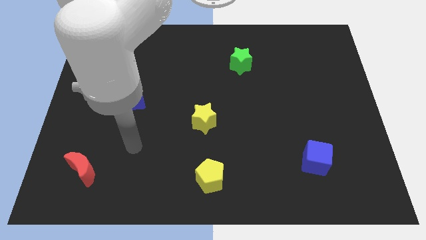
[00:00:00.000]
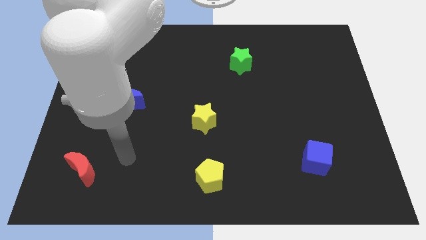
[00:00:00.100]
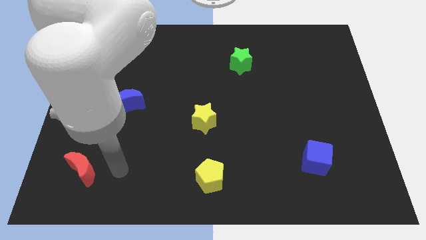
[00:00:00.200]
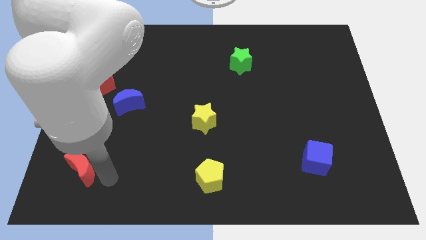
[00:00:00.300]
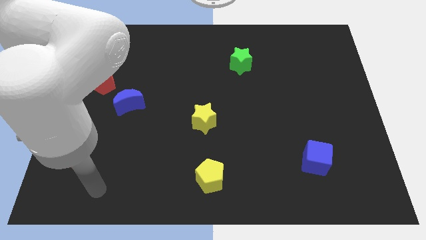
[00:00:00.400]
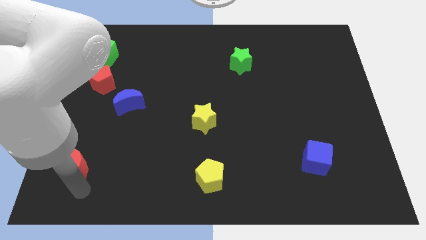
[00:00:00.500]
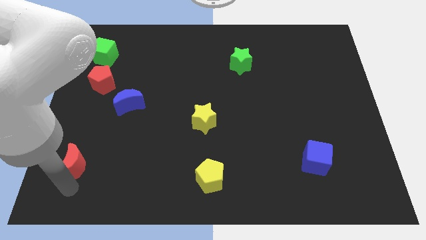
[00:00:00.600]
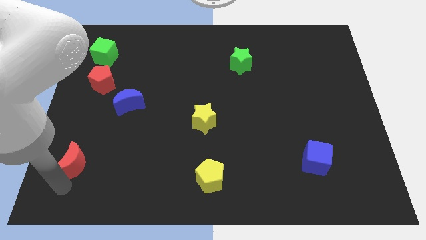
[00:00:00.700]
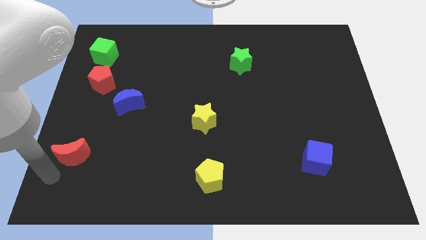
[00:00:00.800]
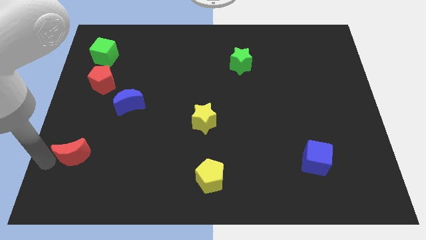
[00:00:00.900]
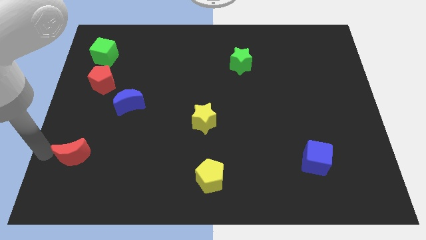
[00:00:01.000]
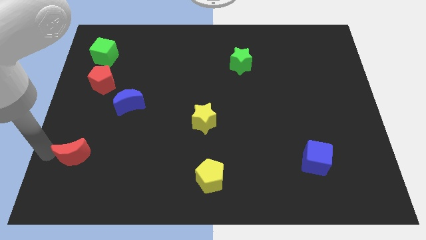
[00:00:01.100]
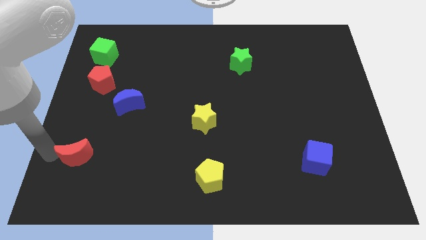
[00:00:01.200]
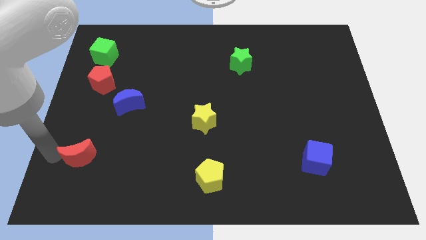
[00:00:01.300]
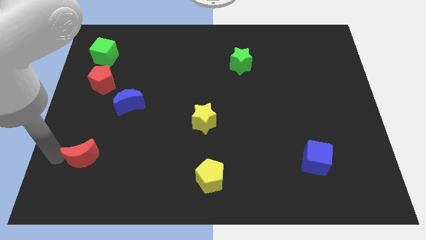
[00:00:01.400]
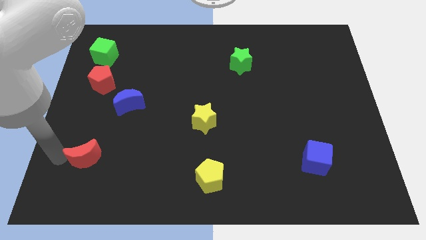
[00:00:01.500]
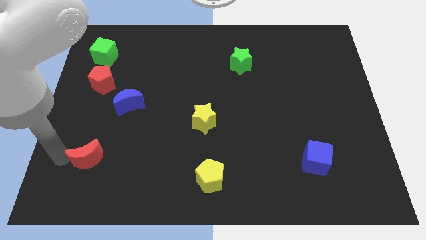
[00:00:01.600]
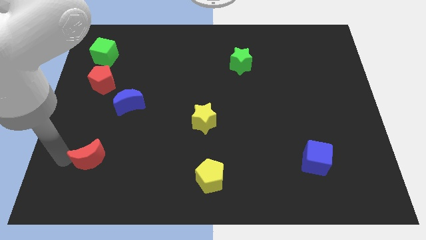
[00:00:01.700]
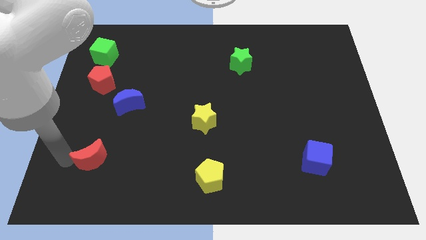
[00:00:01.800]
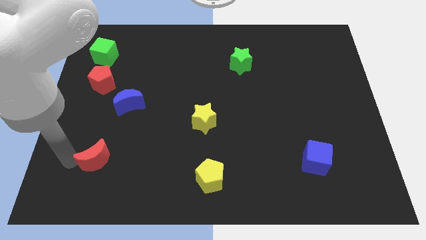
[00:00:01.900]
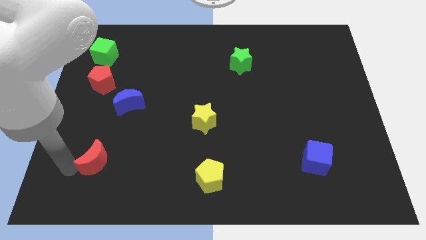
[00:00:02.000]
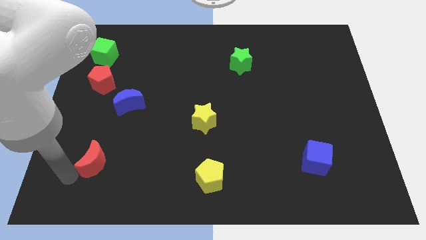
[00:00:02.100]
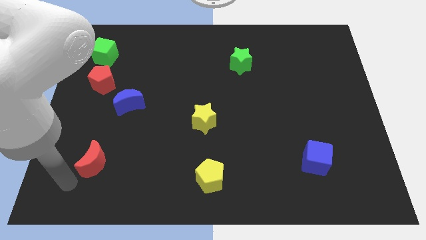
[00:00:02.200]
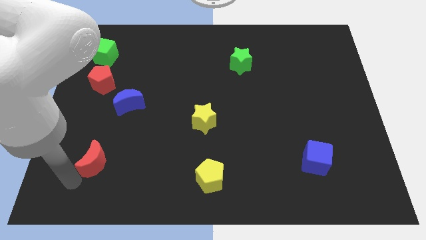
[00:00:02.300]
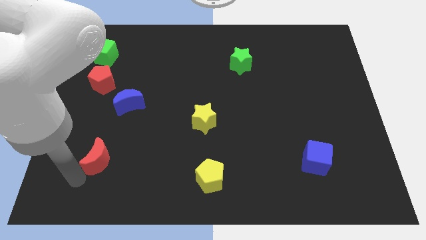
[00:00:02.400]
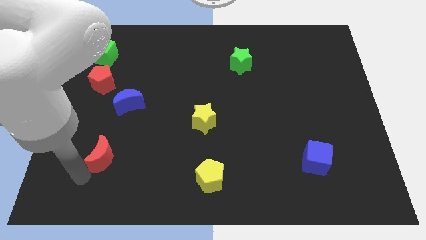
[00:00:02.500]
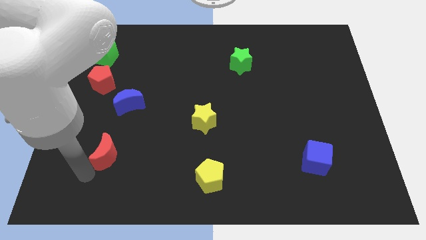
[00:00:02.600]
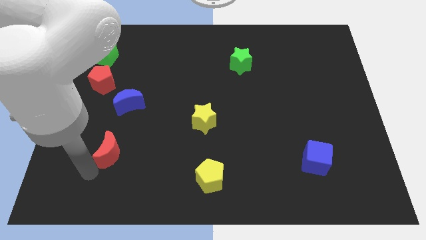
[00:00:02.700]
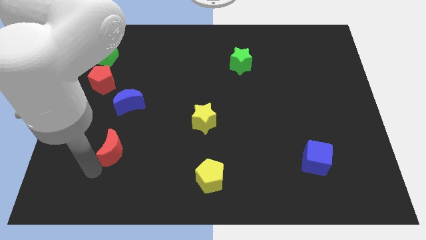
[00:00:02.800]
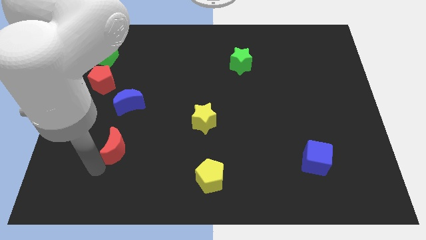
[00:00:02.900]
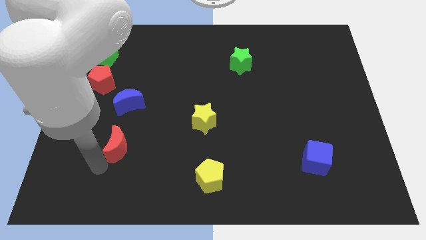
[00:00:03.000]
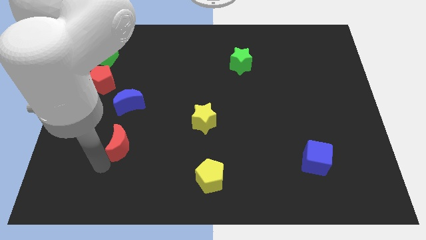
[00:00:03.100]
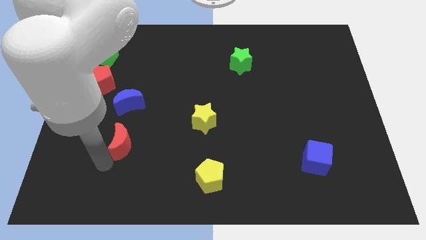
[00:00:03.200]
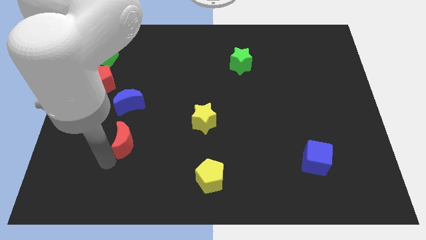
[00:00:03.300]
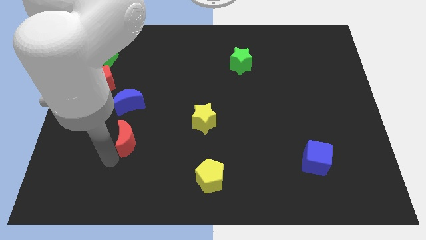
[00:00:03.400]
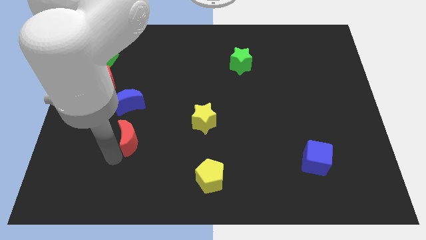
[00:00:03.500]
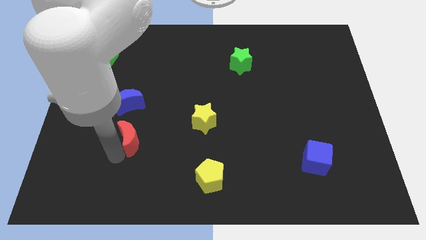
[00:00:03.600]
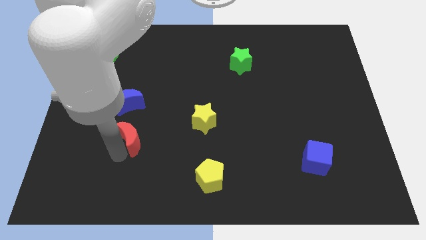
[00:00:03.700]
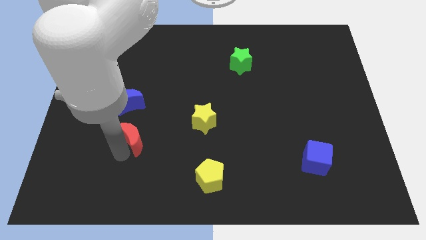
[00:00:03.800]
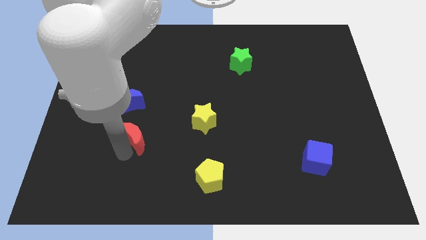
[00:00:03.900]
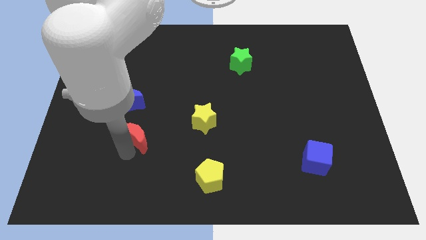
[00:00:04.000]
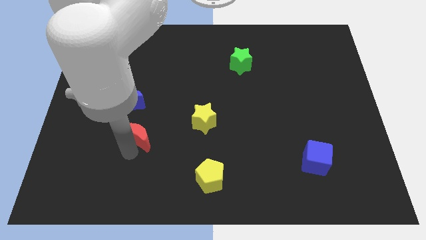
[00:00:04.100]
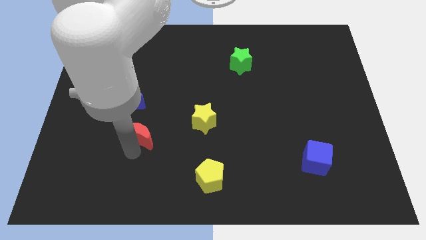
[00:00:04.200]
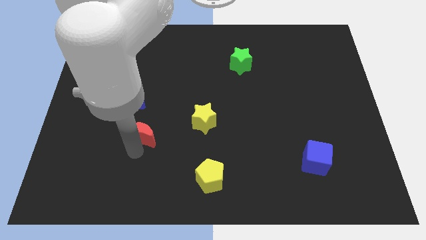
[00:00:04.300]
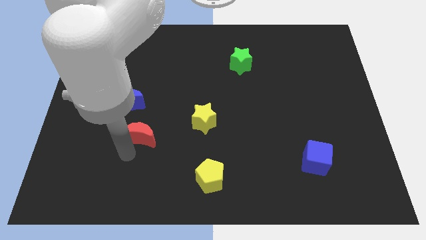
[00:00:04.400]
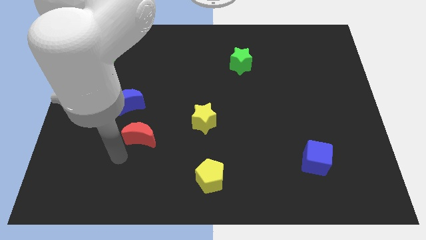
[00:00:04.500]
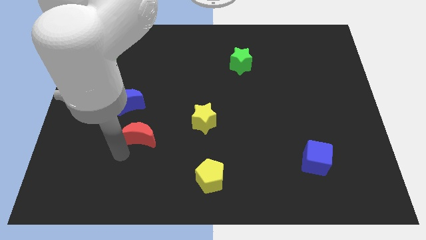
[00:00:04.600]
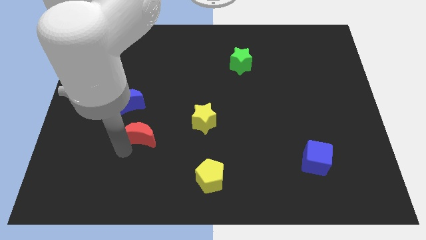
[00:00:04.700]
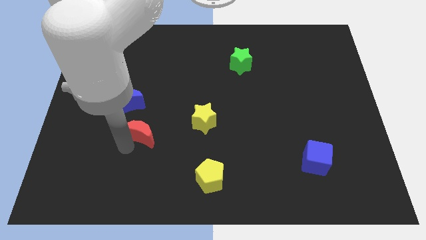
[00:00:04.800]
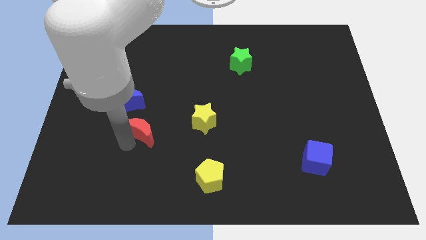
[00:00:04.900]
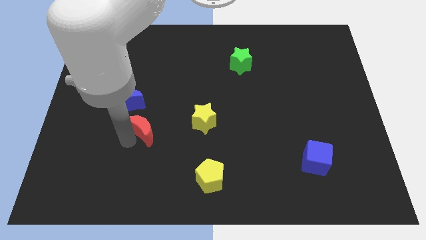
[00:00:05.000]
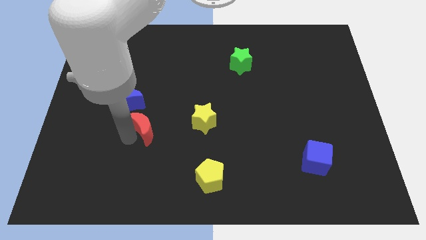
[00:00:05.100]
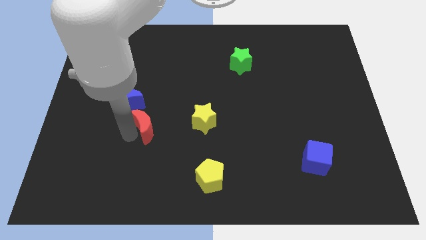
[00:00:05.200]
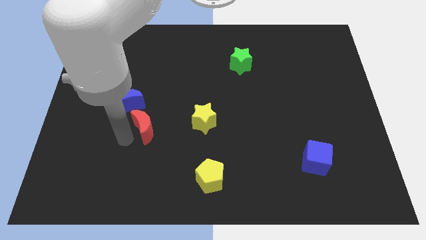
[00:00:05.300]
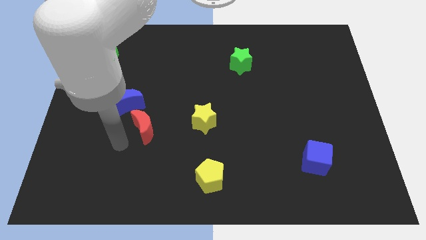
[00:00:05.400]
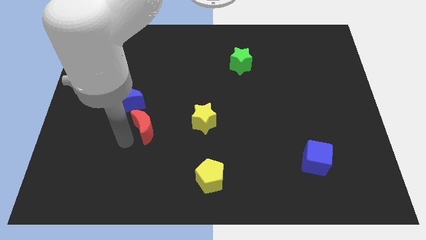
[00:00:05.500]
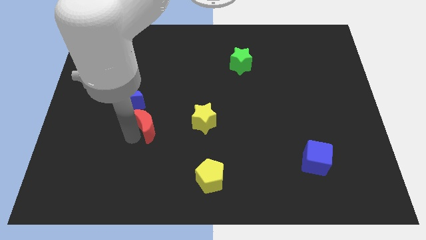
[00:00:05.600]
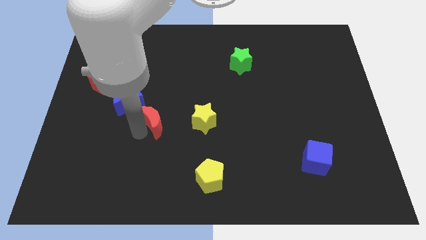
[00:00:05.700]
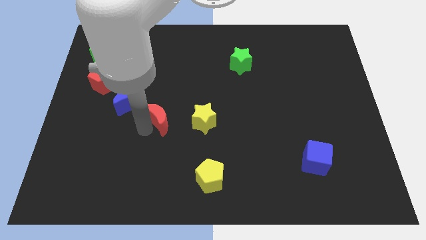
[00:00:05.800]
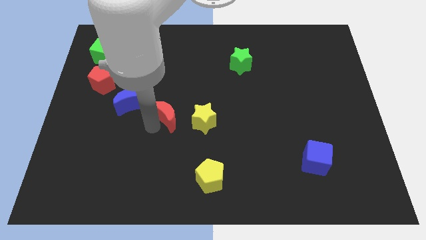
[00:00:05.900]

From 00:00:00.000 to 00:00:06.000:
push the red moon diagonally up and right

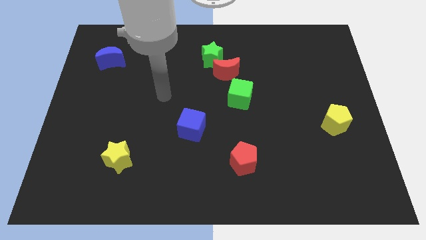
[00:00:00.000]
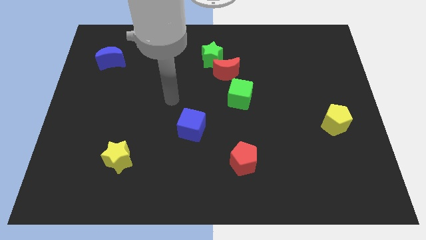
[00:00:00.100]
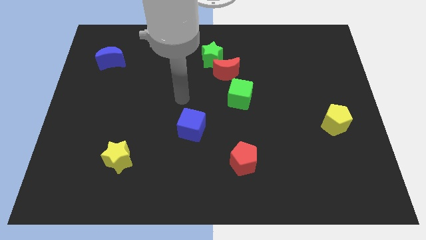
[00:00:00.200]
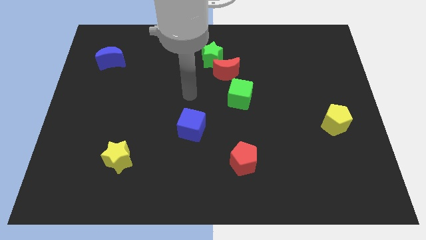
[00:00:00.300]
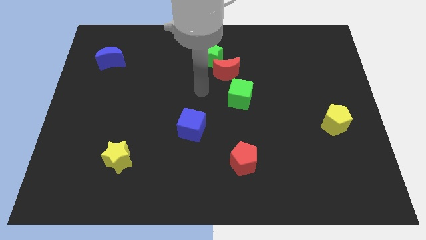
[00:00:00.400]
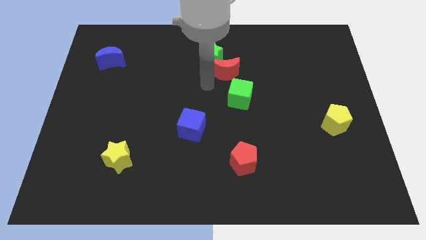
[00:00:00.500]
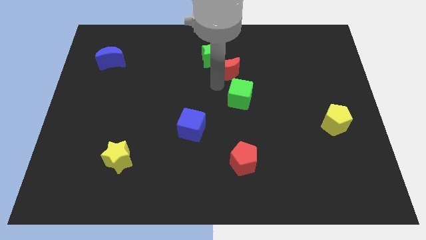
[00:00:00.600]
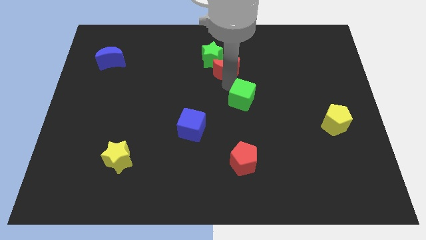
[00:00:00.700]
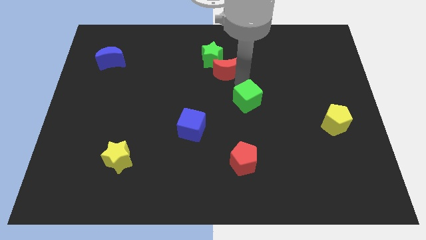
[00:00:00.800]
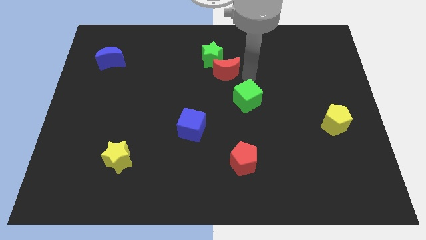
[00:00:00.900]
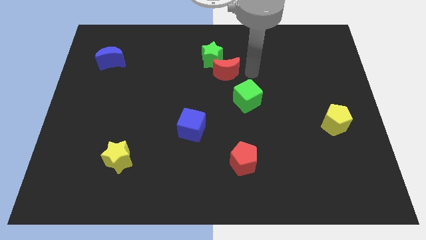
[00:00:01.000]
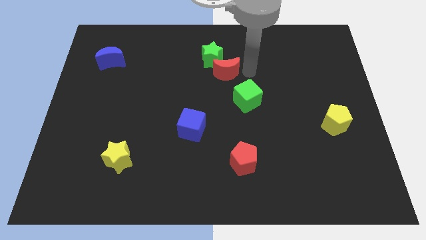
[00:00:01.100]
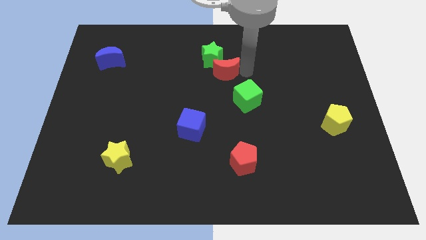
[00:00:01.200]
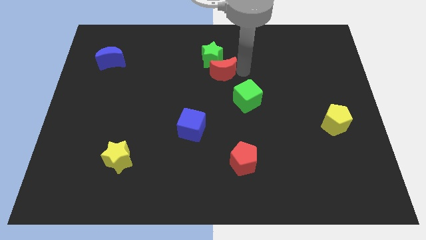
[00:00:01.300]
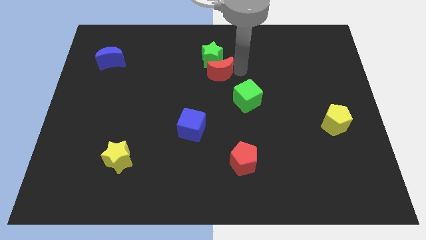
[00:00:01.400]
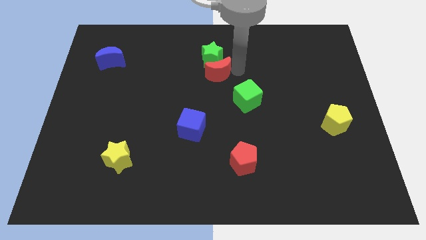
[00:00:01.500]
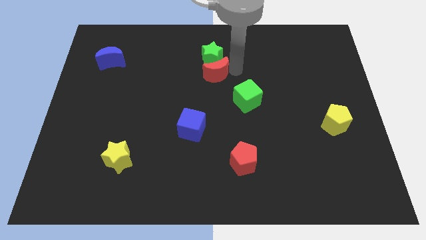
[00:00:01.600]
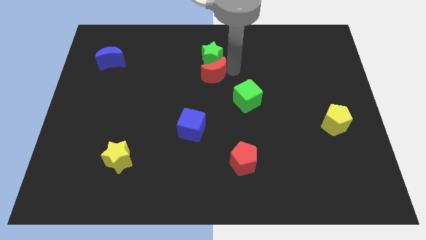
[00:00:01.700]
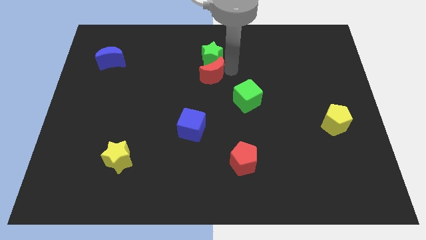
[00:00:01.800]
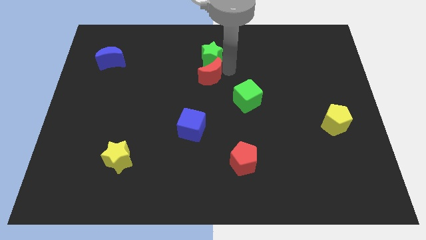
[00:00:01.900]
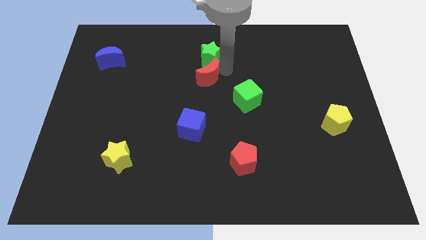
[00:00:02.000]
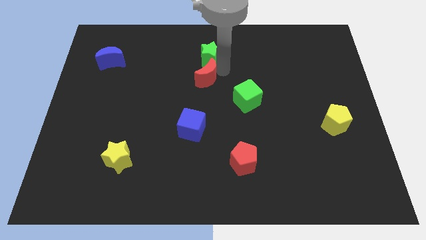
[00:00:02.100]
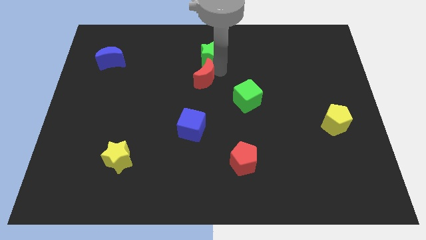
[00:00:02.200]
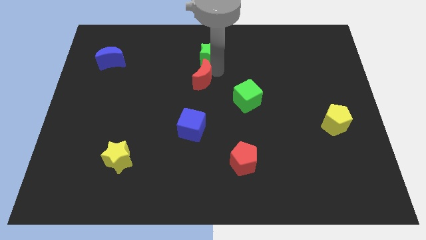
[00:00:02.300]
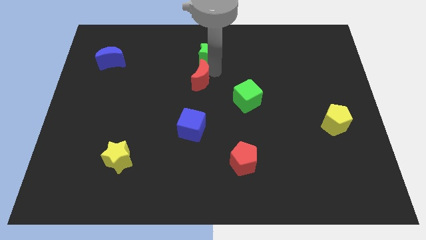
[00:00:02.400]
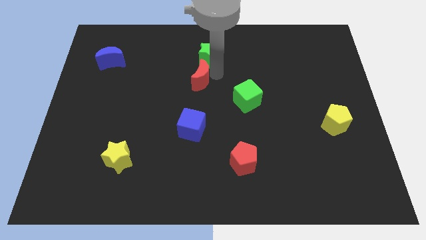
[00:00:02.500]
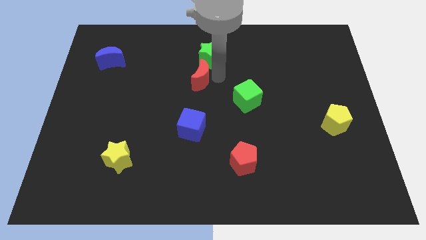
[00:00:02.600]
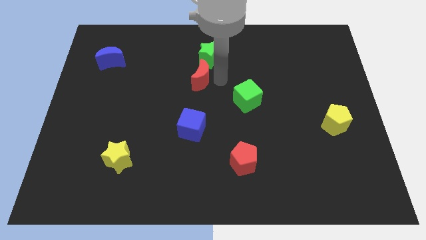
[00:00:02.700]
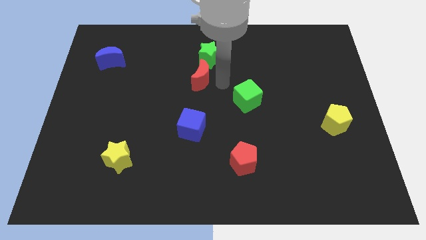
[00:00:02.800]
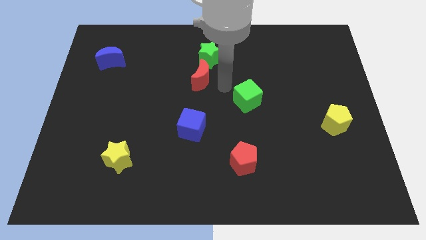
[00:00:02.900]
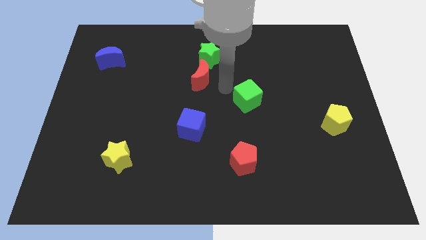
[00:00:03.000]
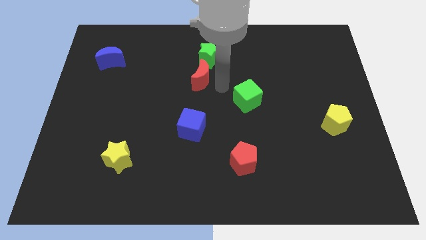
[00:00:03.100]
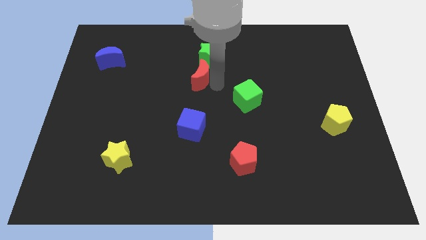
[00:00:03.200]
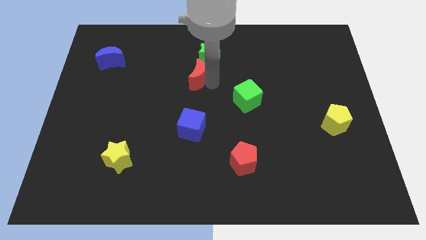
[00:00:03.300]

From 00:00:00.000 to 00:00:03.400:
move the red moon left somewhat
